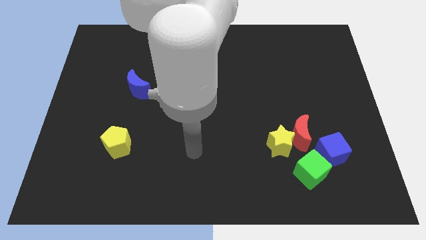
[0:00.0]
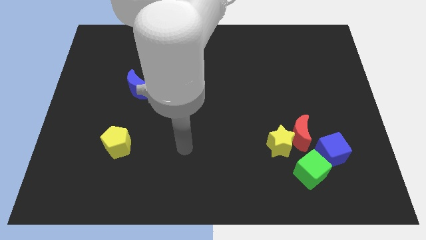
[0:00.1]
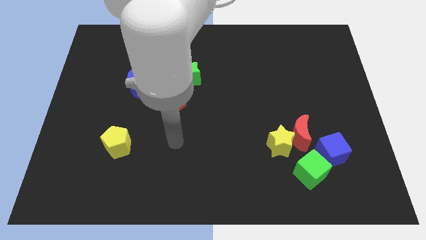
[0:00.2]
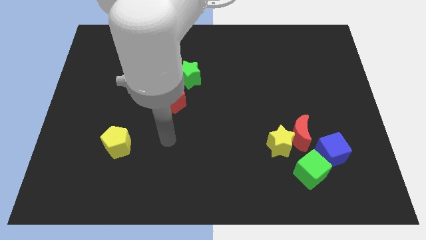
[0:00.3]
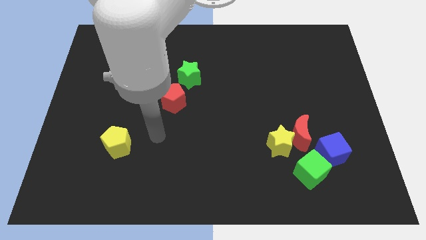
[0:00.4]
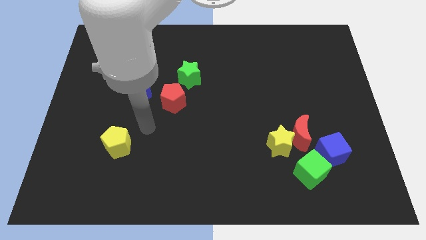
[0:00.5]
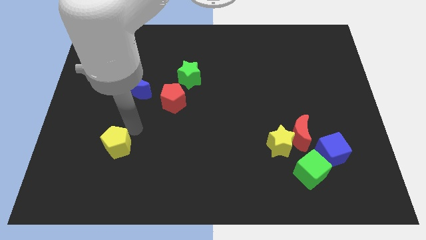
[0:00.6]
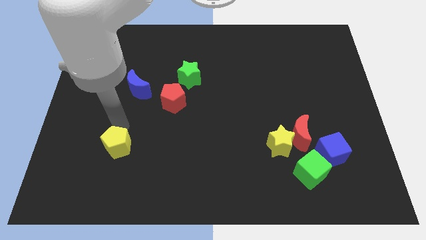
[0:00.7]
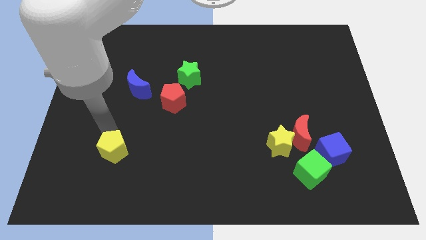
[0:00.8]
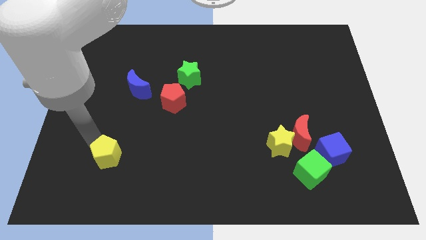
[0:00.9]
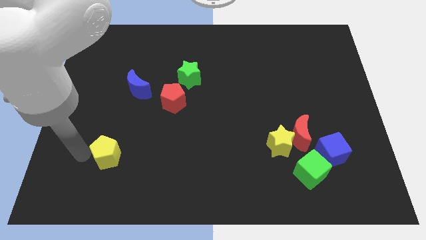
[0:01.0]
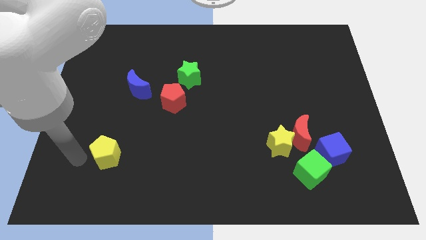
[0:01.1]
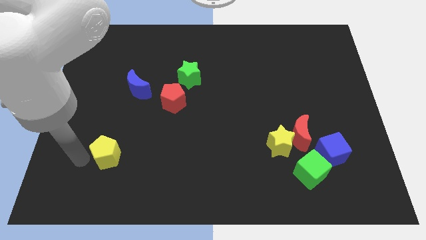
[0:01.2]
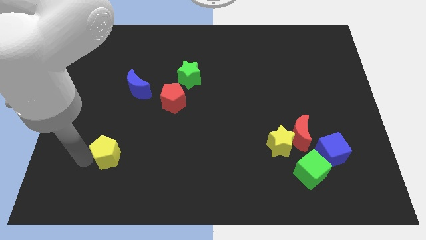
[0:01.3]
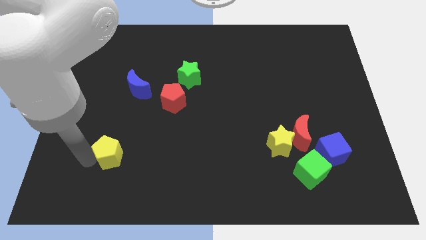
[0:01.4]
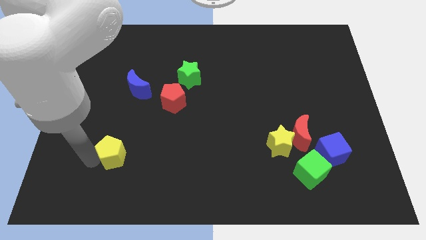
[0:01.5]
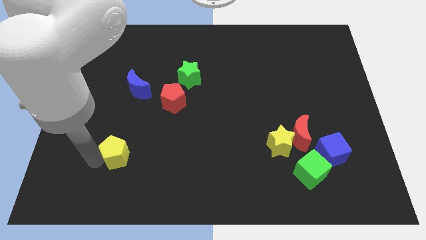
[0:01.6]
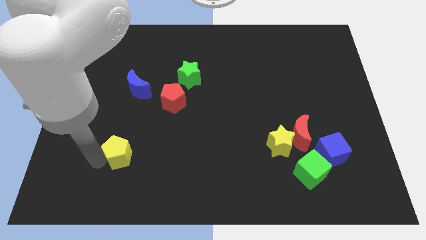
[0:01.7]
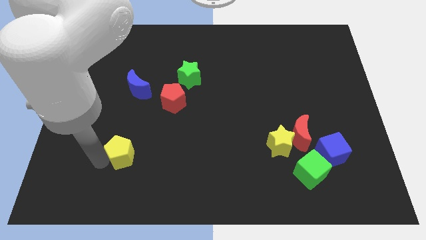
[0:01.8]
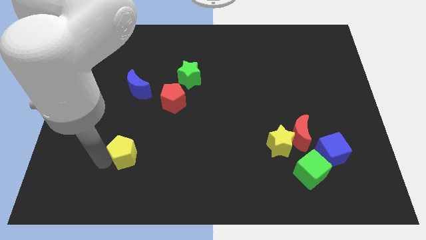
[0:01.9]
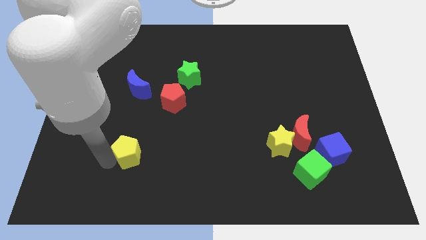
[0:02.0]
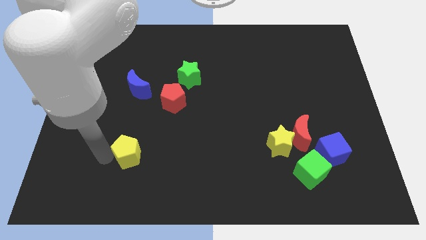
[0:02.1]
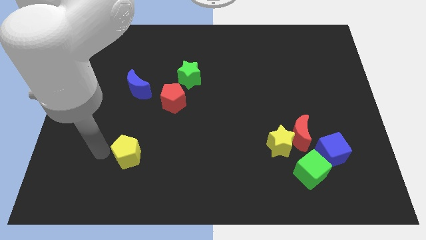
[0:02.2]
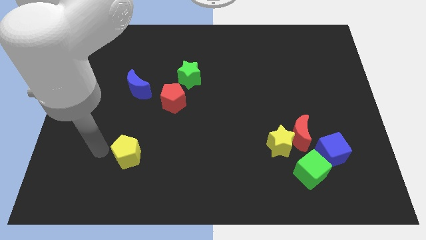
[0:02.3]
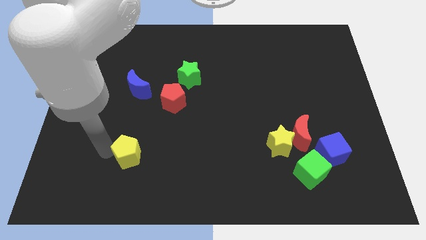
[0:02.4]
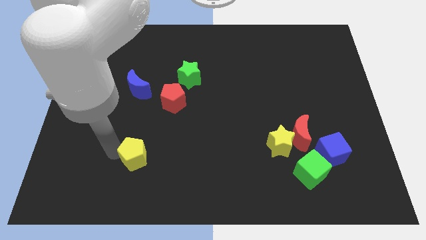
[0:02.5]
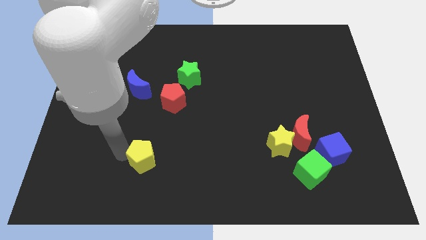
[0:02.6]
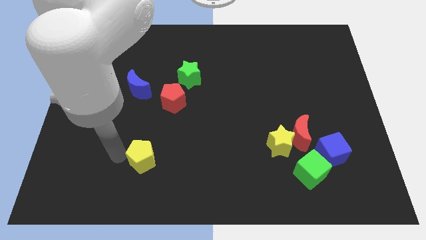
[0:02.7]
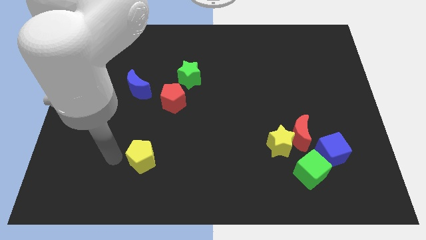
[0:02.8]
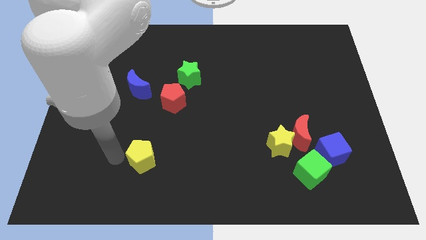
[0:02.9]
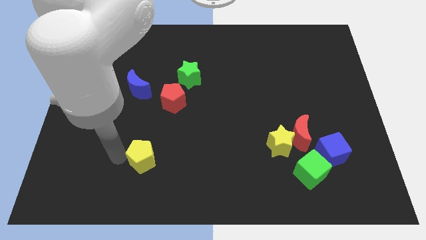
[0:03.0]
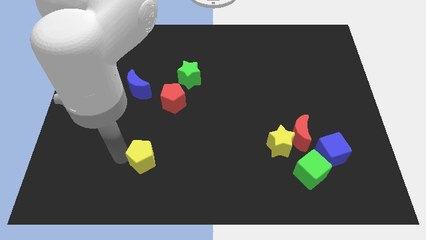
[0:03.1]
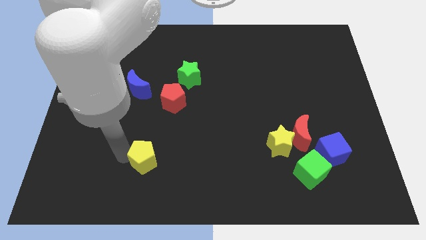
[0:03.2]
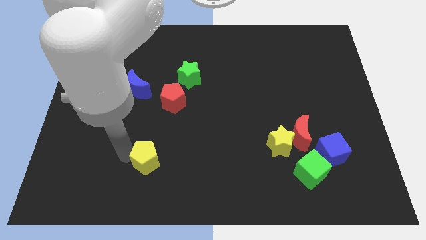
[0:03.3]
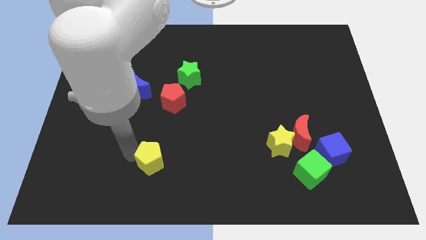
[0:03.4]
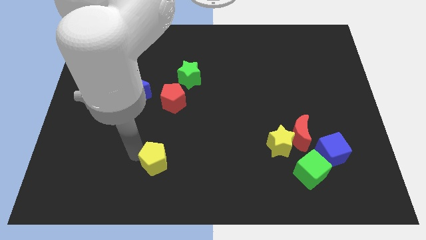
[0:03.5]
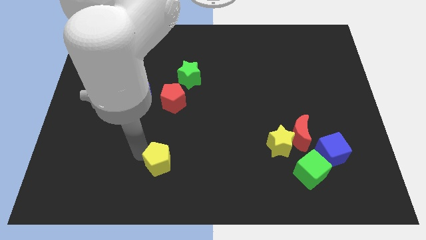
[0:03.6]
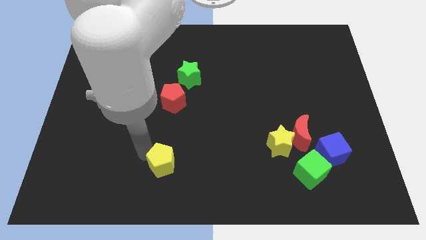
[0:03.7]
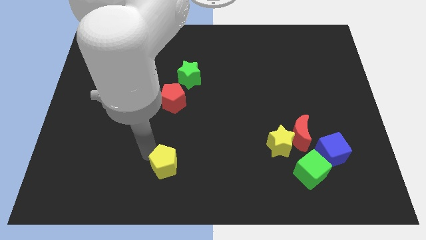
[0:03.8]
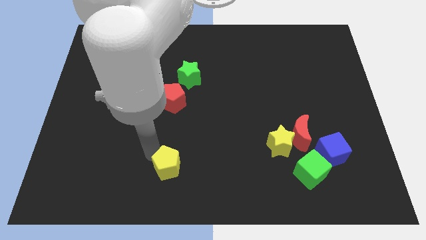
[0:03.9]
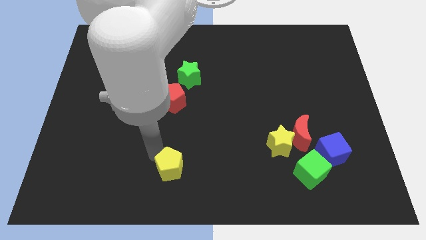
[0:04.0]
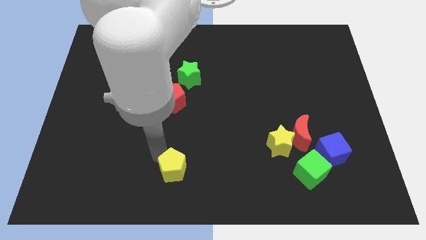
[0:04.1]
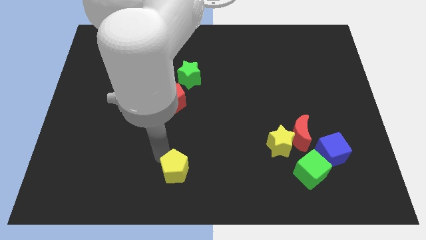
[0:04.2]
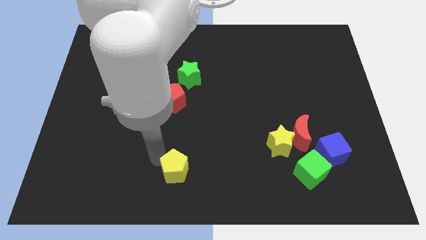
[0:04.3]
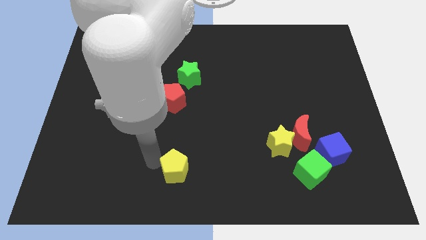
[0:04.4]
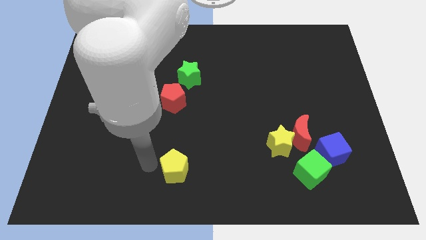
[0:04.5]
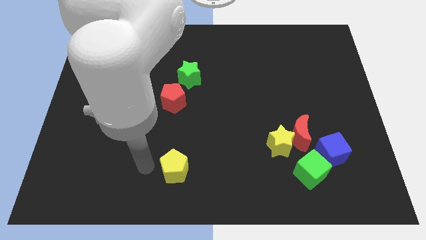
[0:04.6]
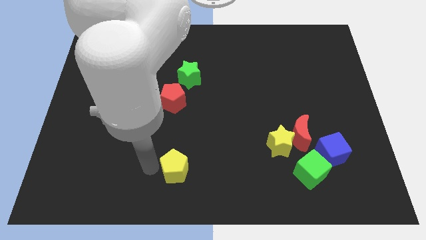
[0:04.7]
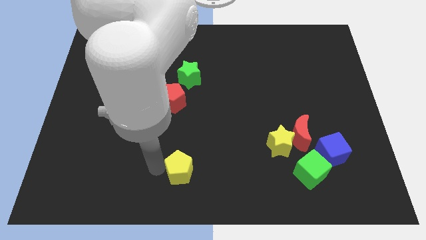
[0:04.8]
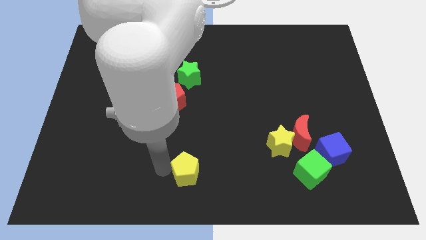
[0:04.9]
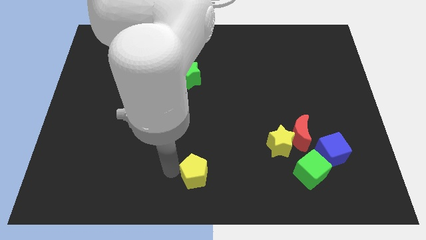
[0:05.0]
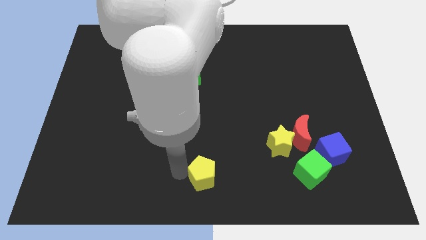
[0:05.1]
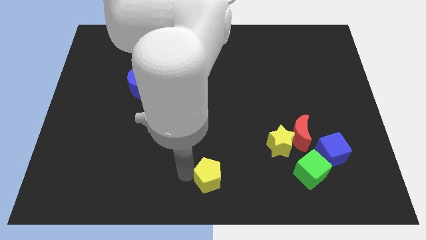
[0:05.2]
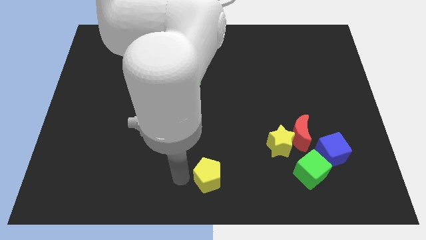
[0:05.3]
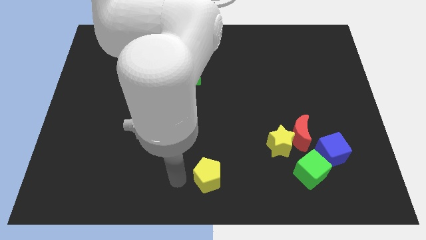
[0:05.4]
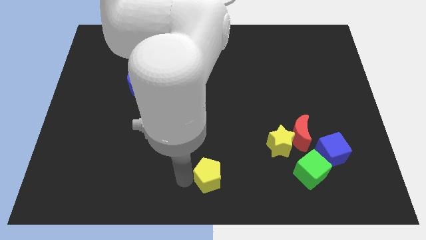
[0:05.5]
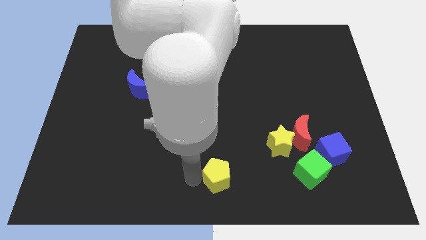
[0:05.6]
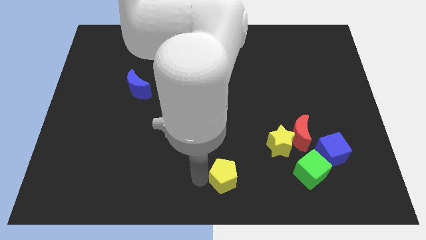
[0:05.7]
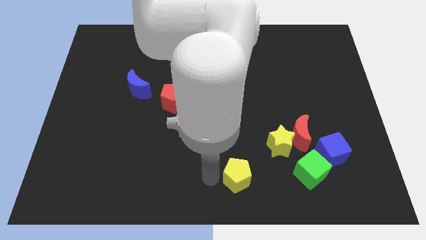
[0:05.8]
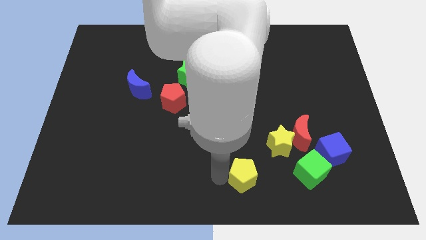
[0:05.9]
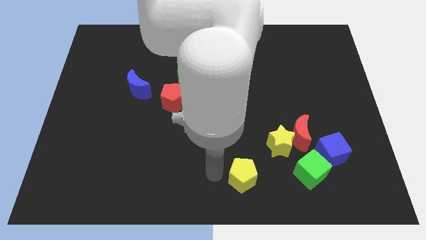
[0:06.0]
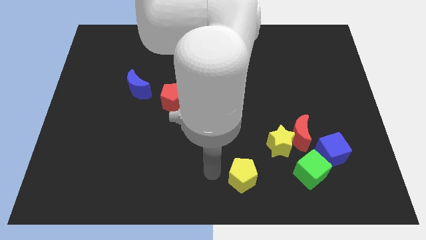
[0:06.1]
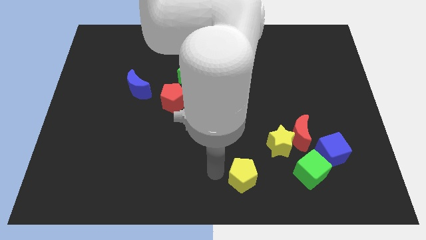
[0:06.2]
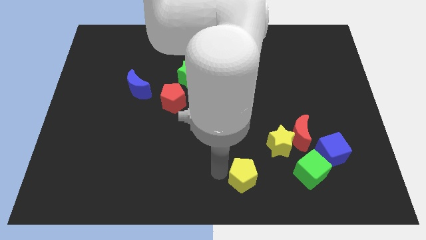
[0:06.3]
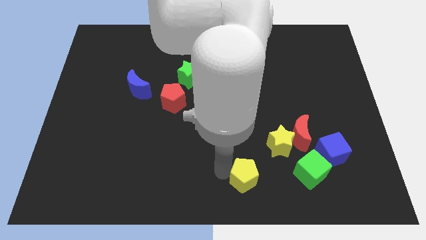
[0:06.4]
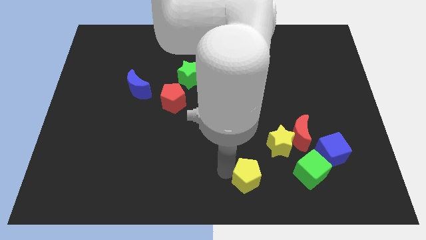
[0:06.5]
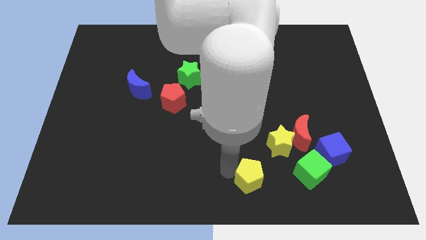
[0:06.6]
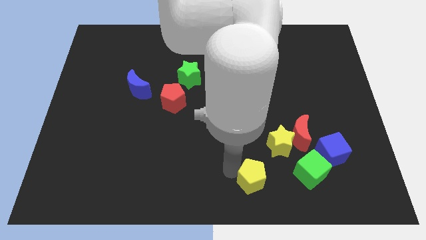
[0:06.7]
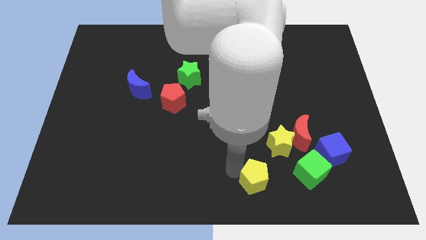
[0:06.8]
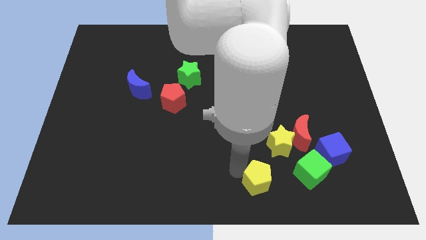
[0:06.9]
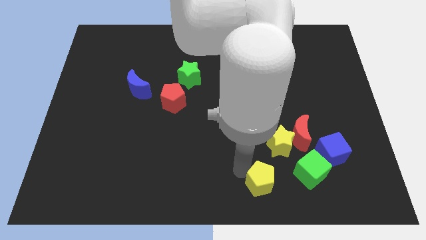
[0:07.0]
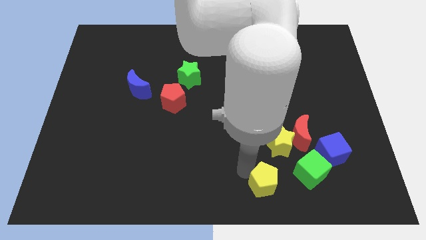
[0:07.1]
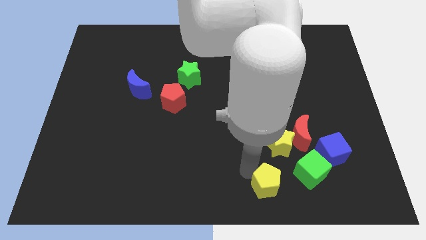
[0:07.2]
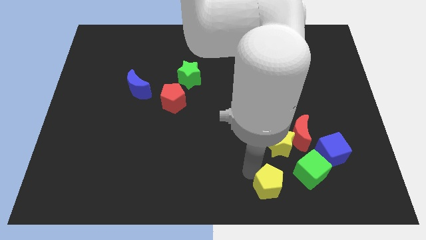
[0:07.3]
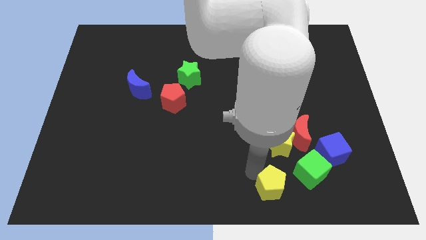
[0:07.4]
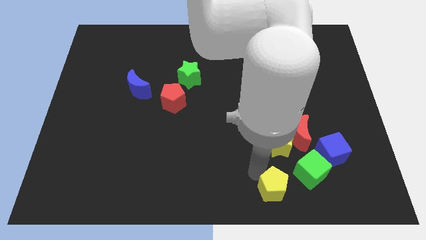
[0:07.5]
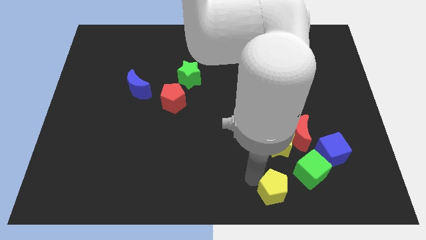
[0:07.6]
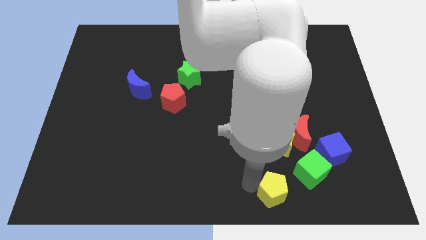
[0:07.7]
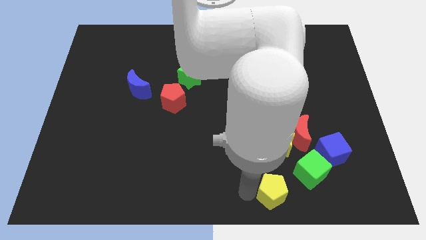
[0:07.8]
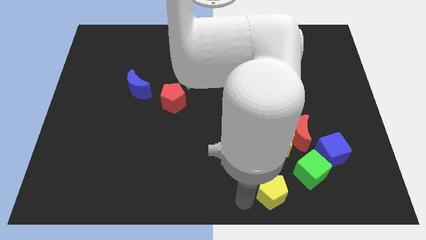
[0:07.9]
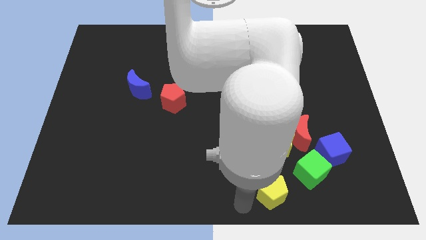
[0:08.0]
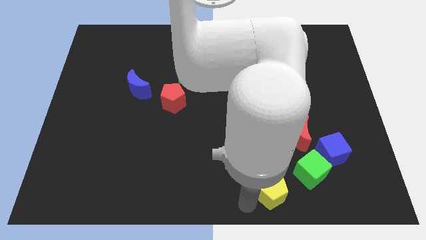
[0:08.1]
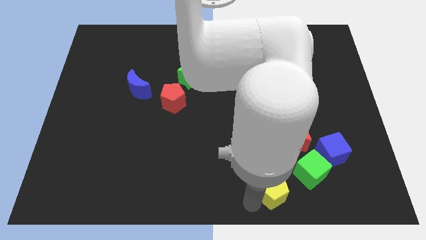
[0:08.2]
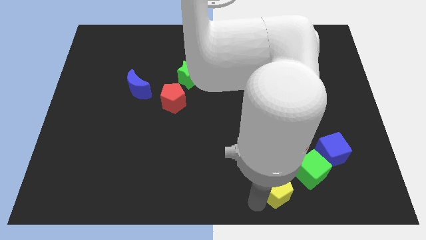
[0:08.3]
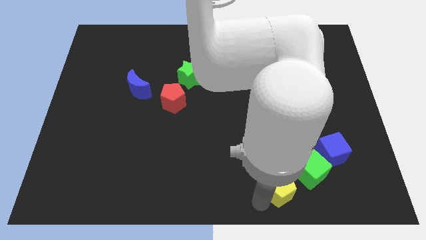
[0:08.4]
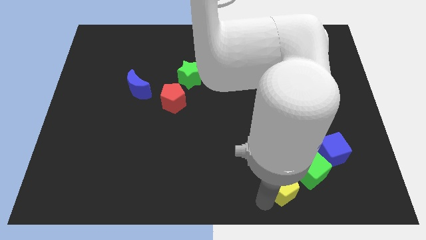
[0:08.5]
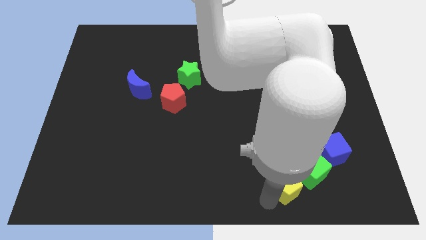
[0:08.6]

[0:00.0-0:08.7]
slide the yellow pentagon to the bottom side of the red moon
